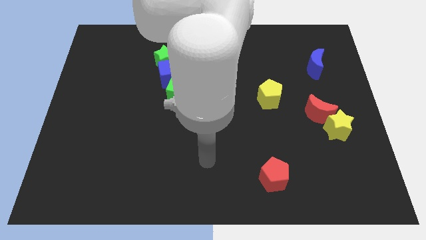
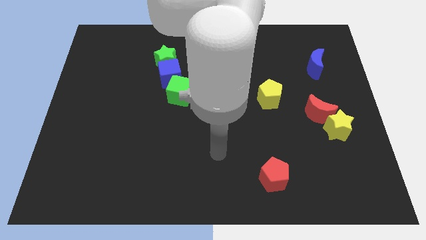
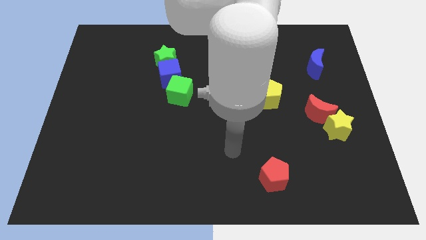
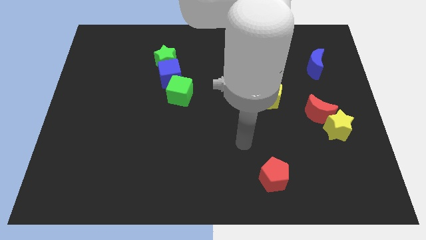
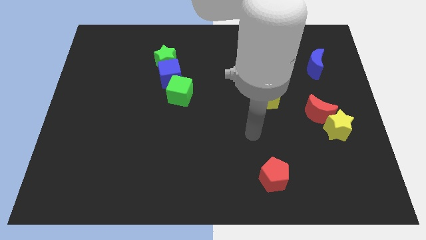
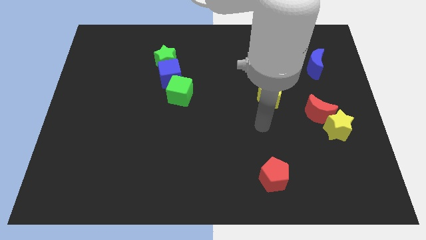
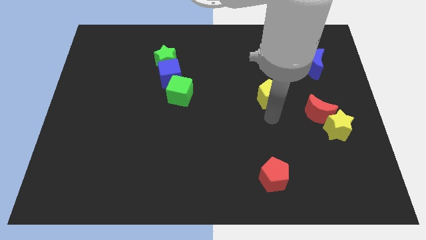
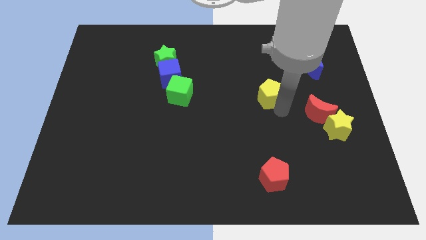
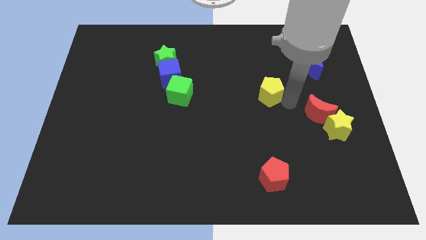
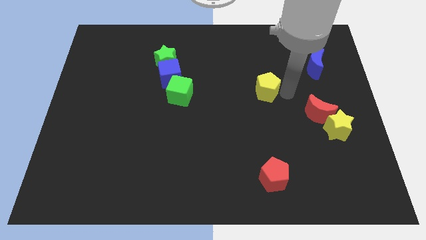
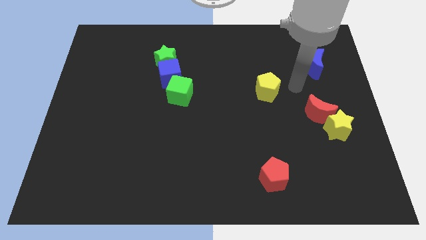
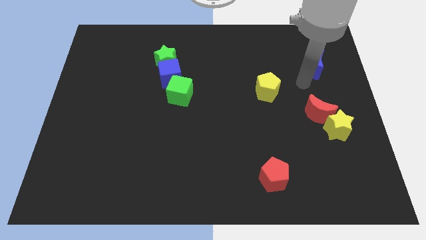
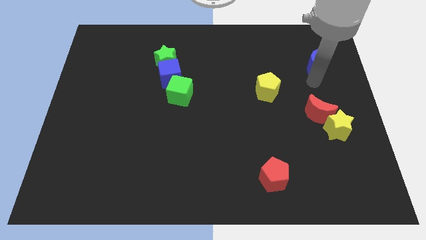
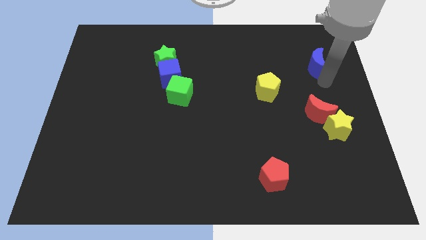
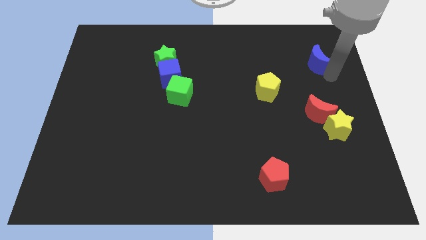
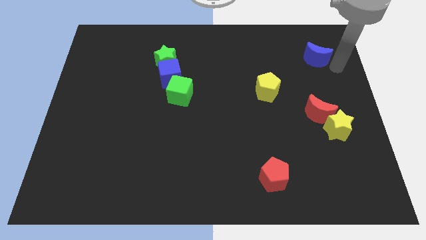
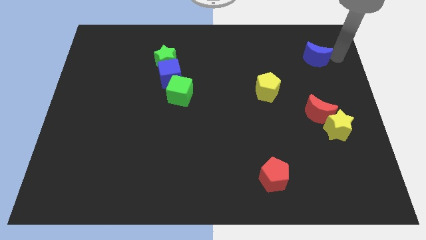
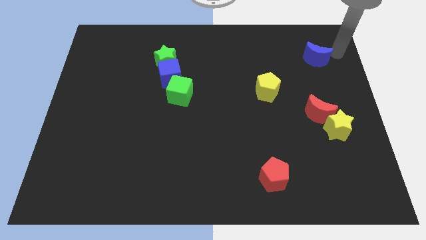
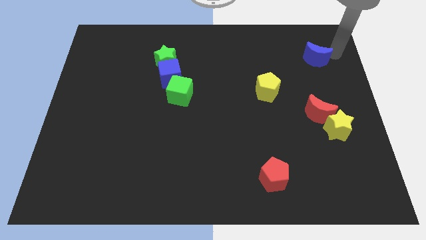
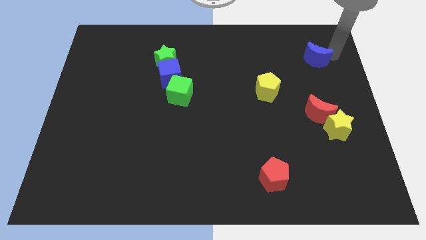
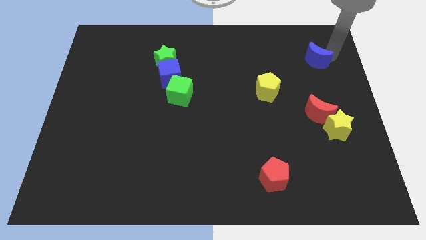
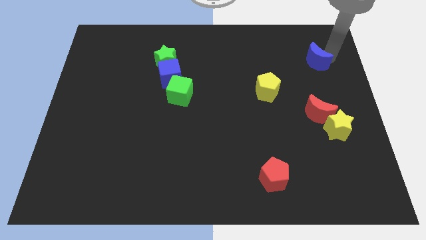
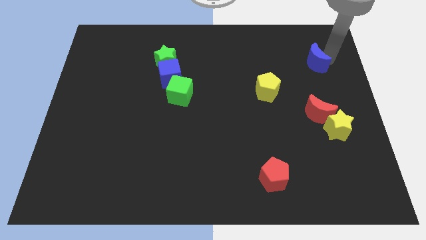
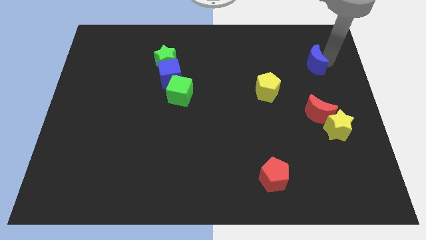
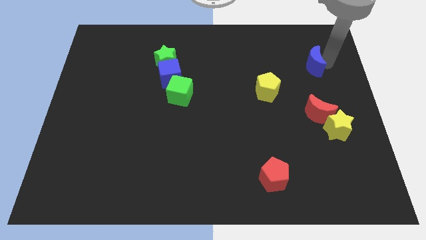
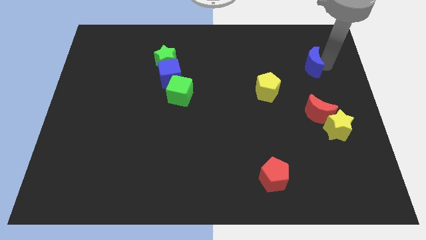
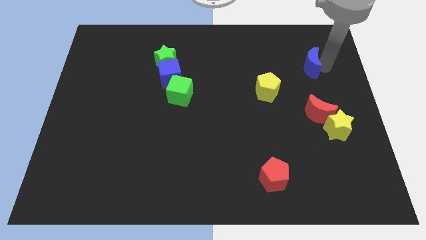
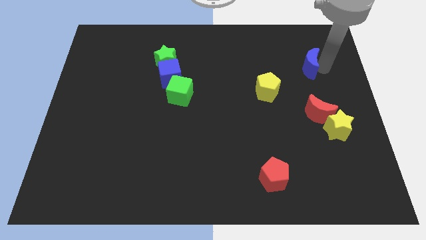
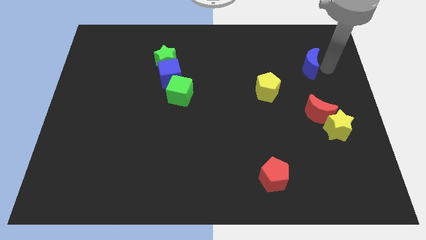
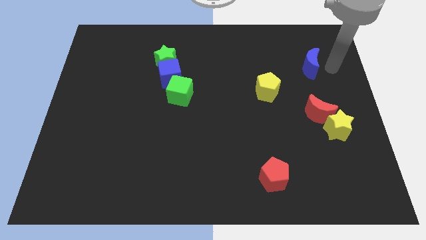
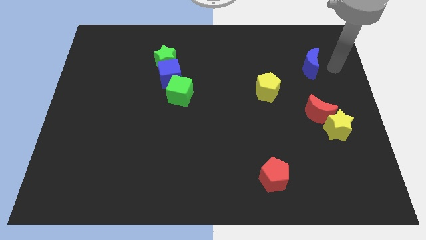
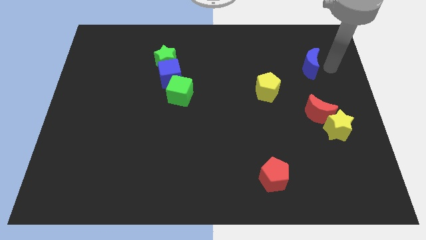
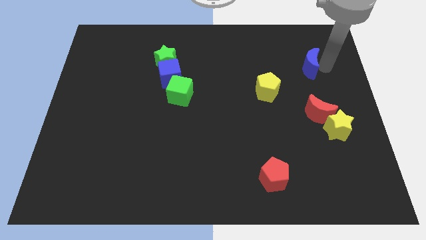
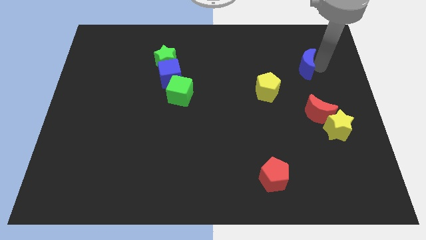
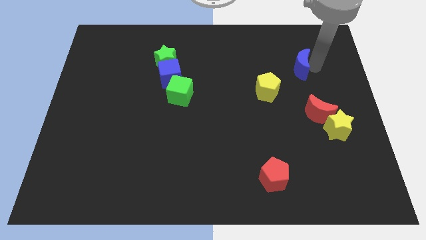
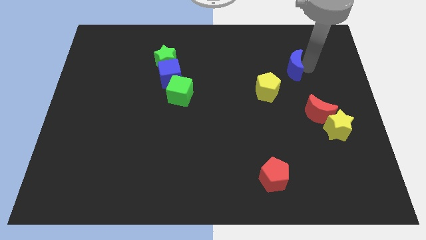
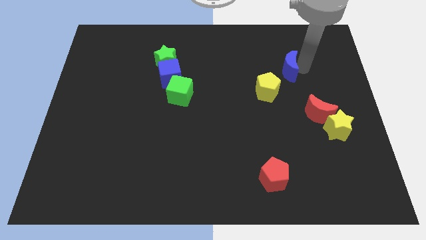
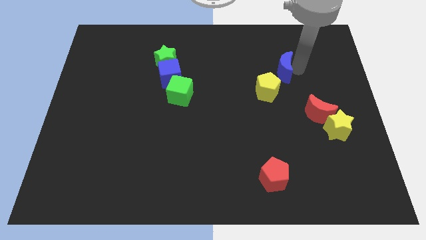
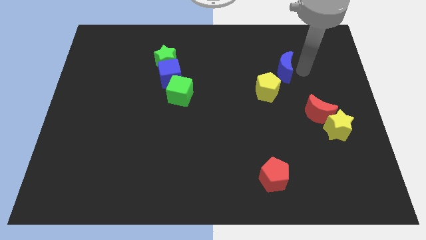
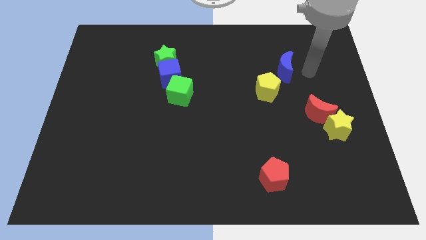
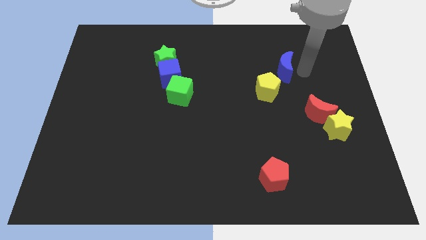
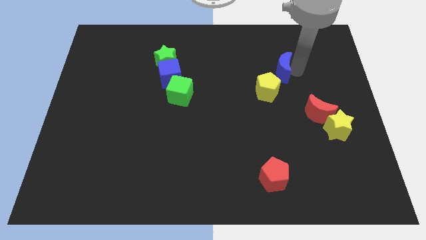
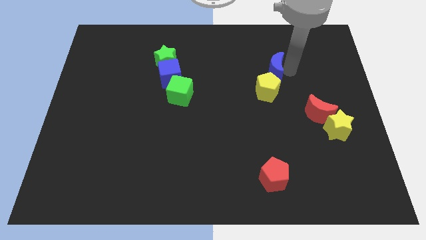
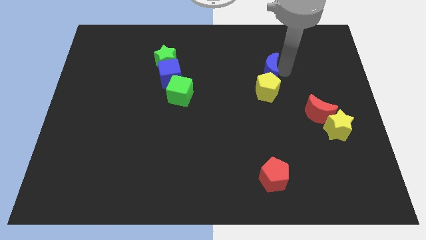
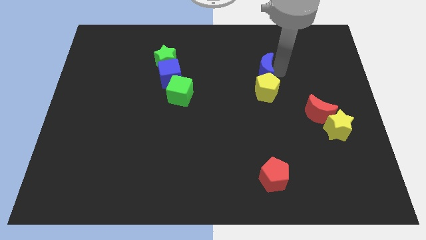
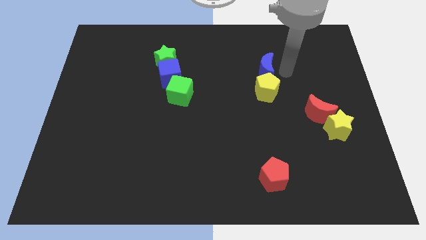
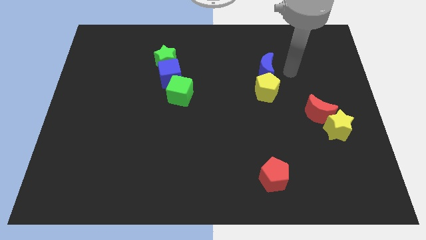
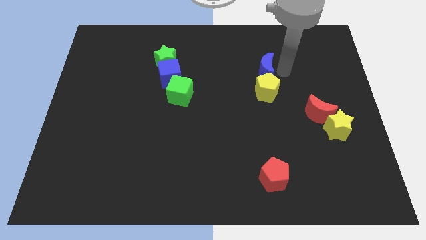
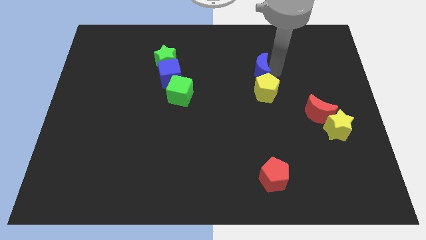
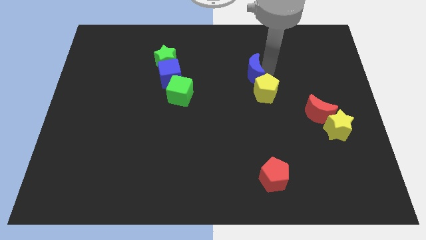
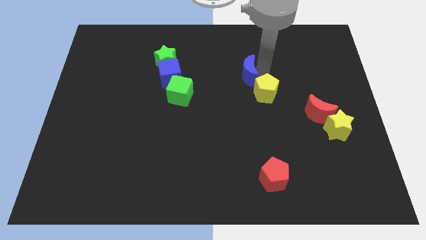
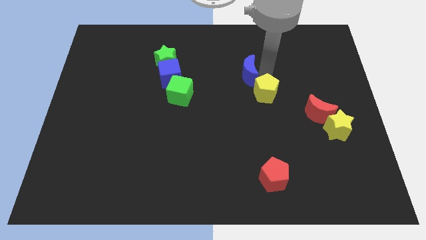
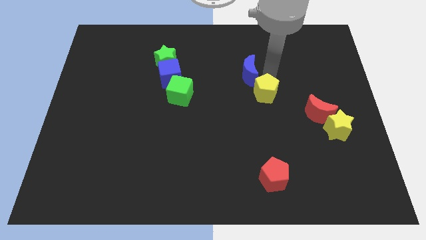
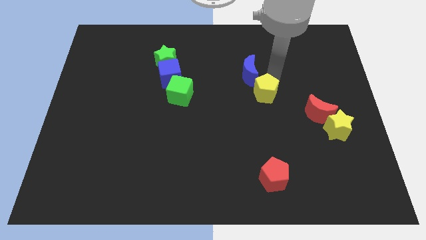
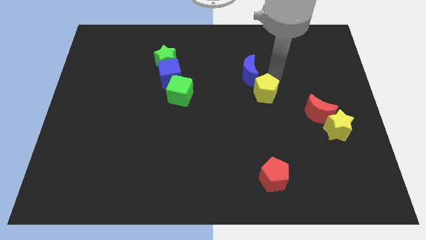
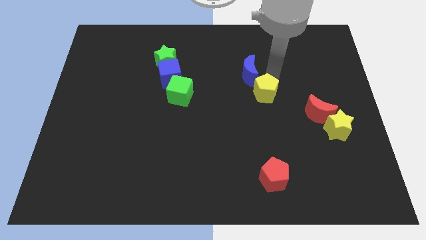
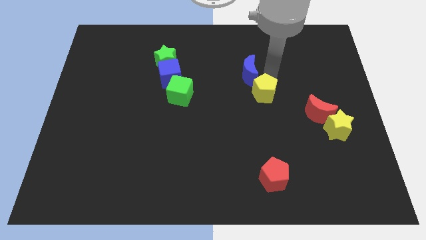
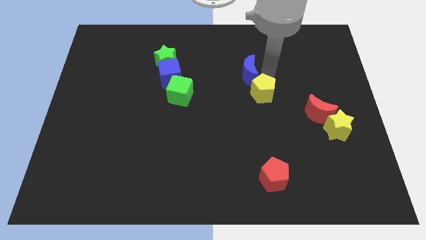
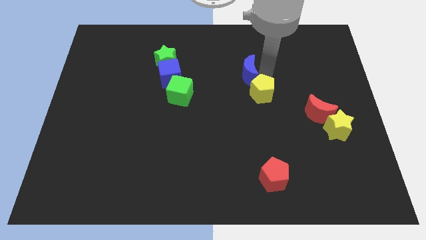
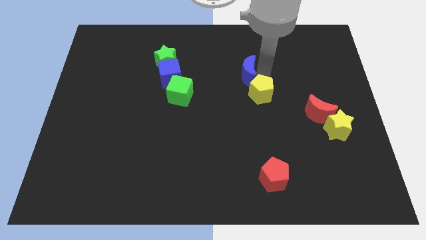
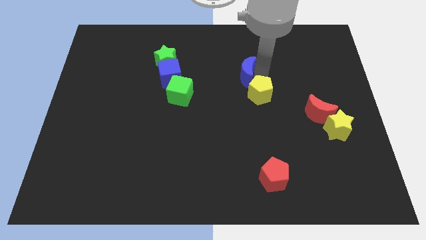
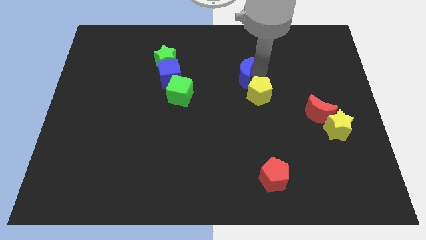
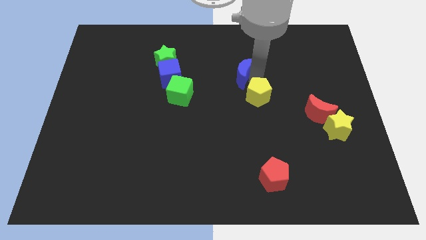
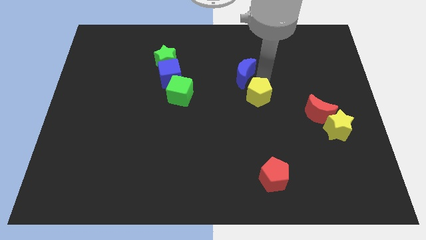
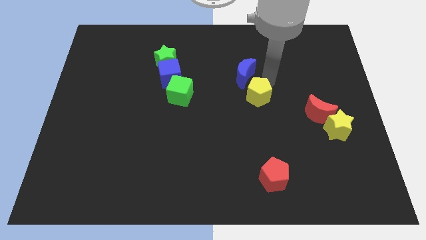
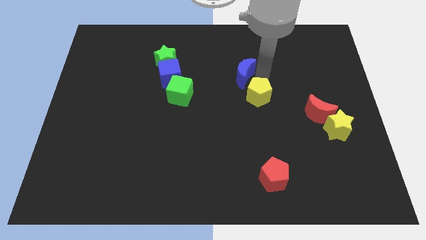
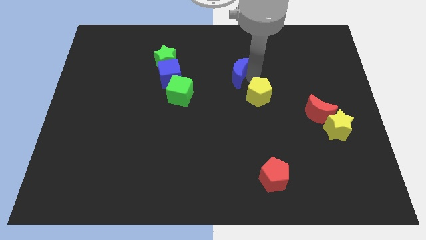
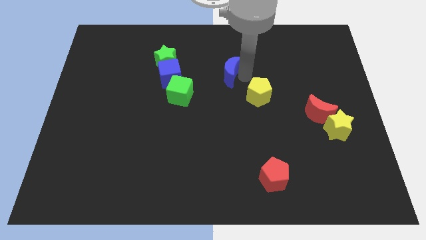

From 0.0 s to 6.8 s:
move the blue moon to the left

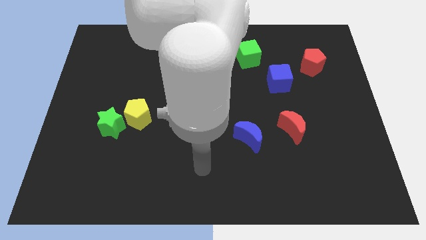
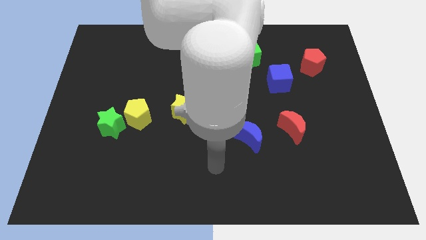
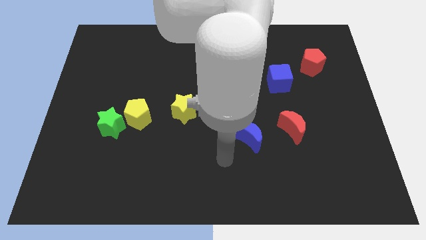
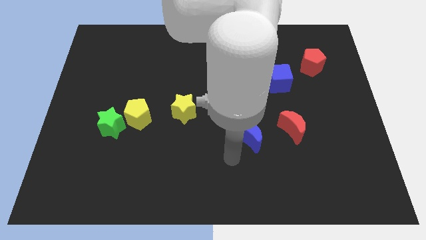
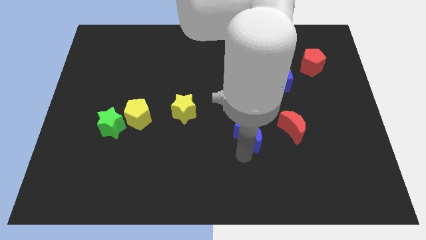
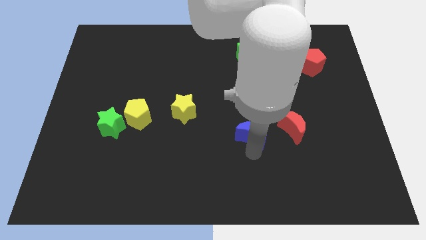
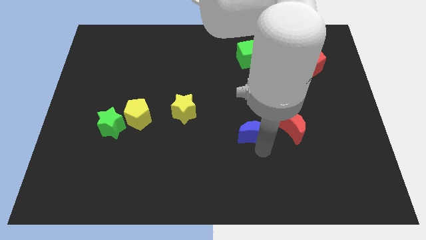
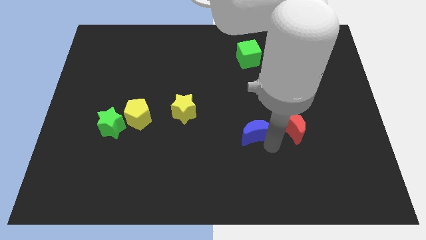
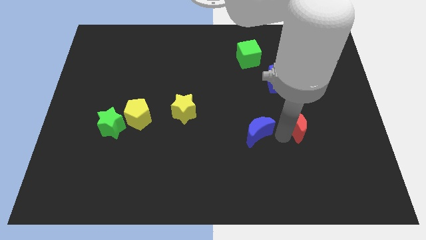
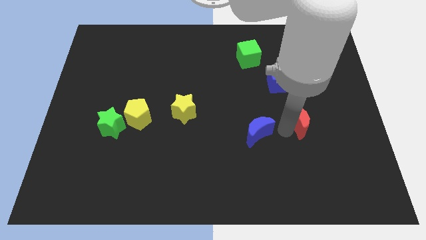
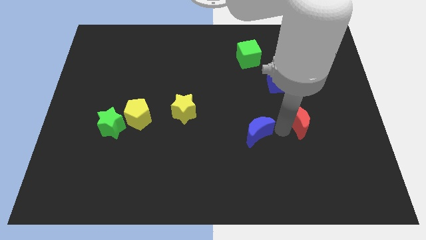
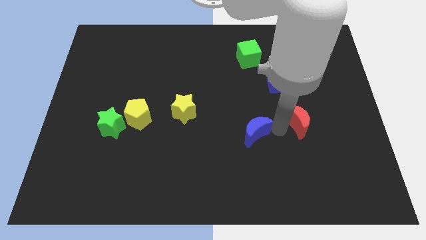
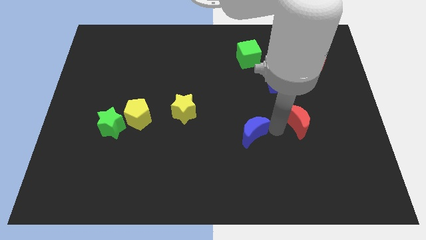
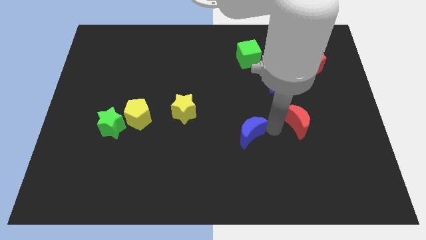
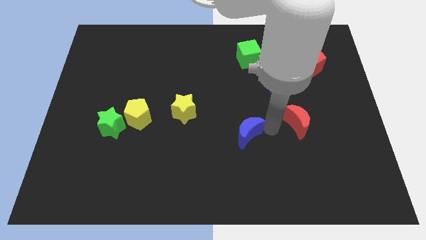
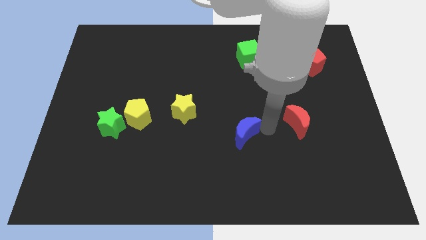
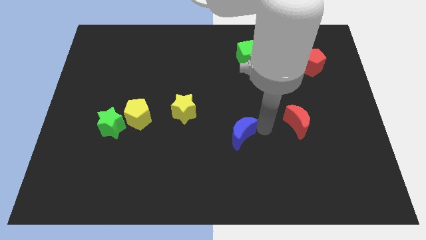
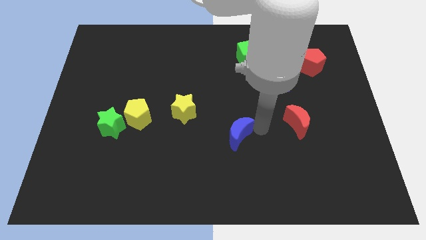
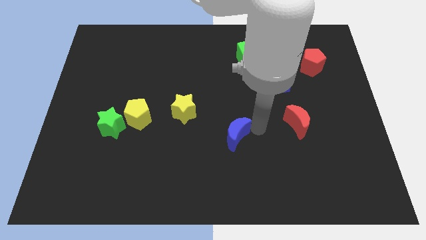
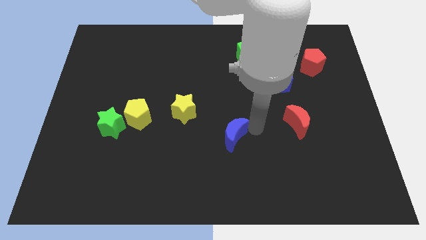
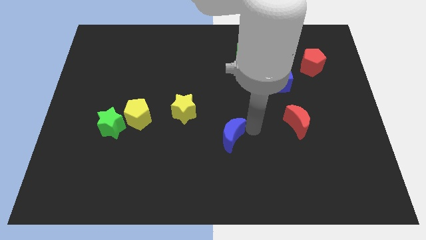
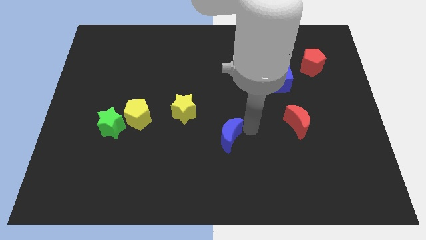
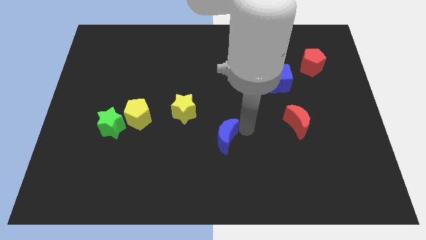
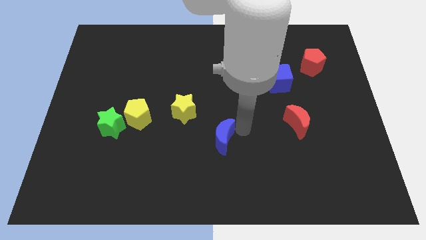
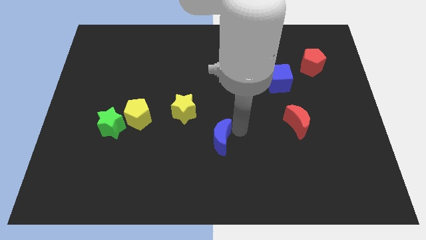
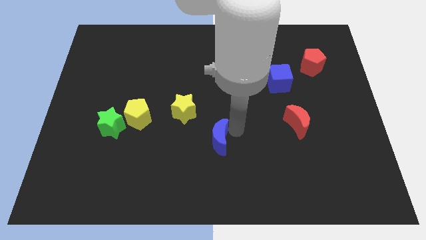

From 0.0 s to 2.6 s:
push the blue moon somewhat to the left
